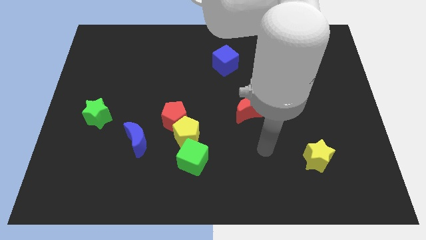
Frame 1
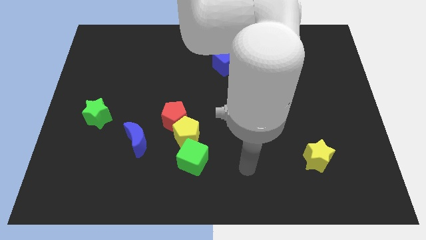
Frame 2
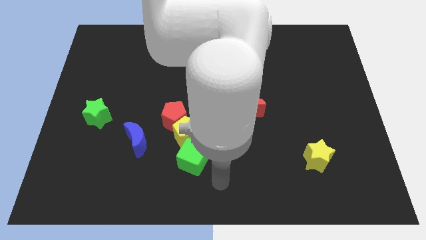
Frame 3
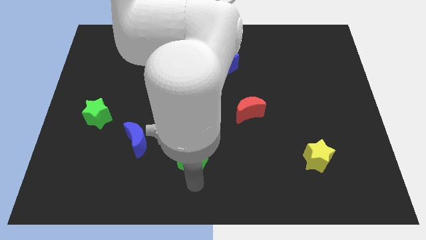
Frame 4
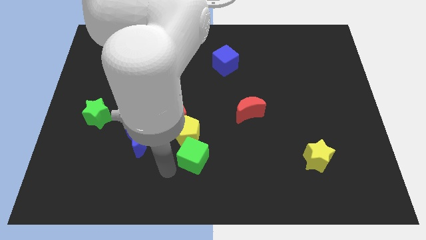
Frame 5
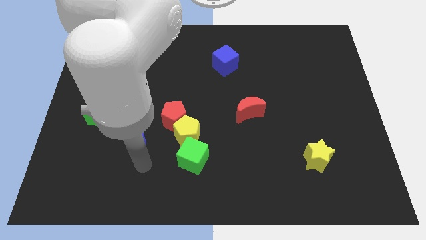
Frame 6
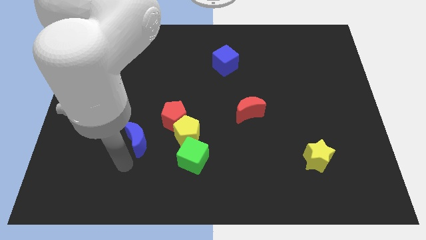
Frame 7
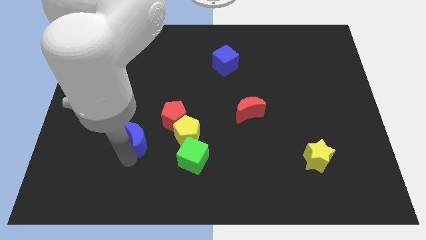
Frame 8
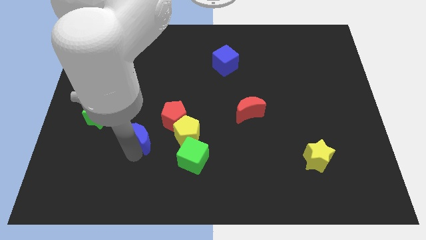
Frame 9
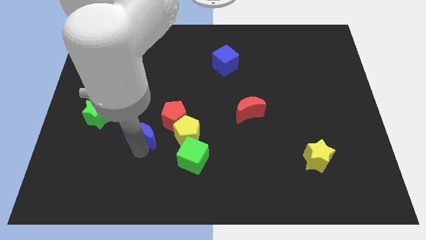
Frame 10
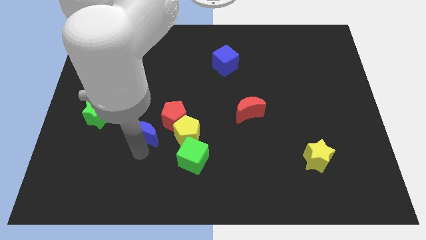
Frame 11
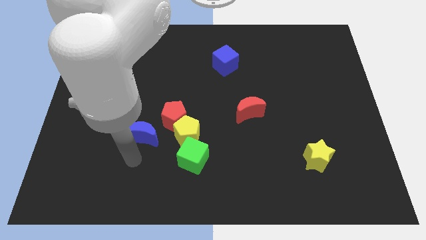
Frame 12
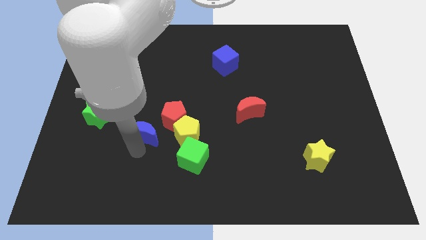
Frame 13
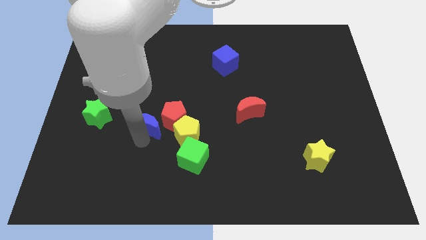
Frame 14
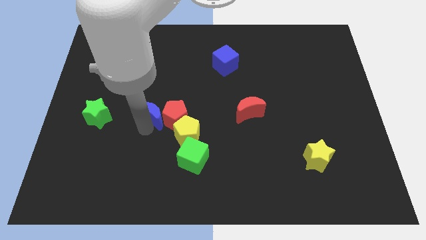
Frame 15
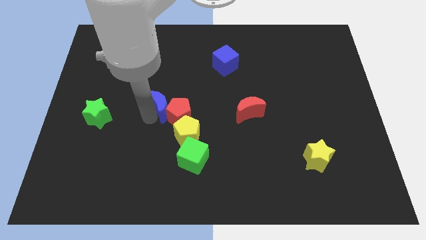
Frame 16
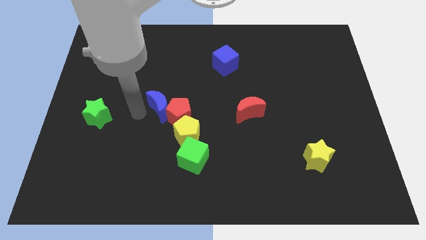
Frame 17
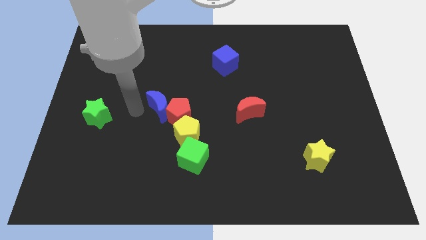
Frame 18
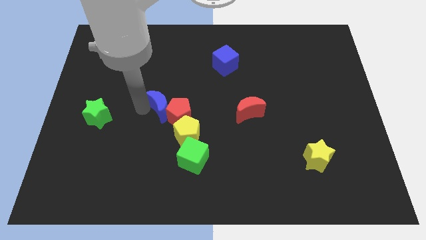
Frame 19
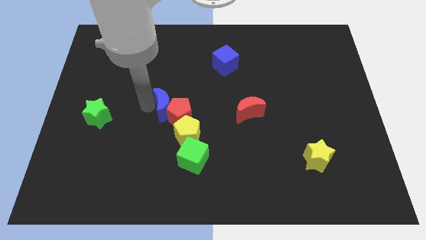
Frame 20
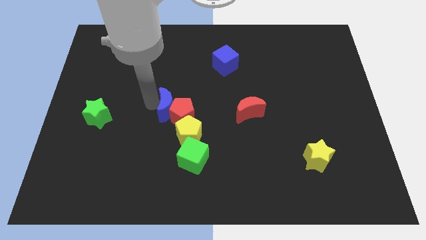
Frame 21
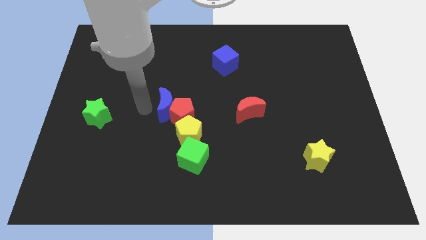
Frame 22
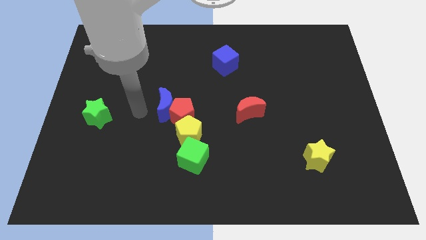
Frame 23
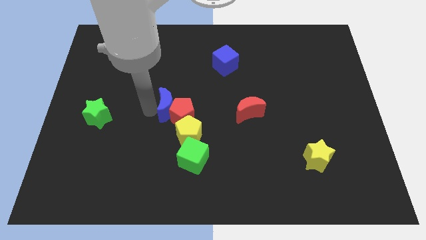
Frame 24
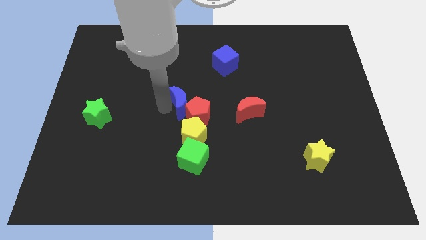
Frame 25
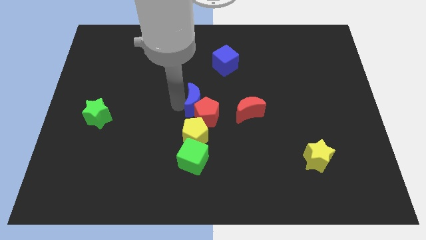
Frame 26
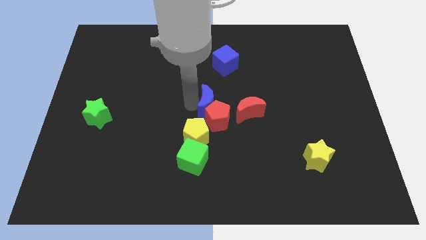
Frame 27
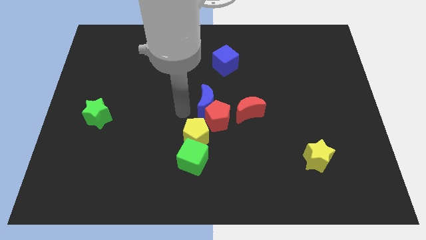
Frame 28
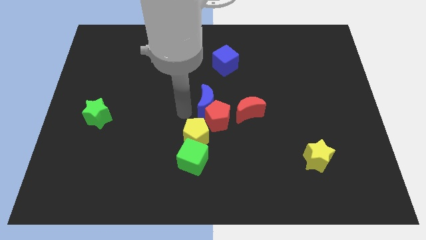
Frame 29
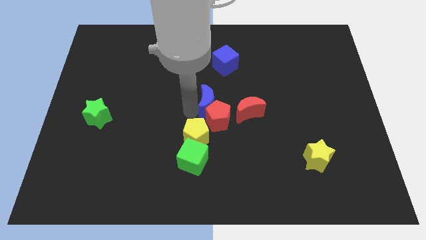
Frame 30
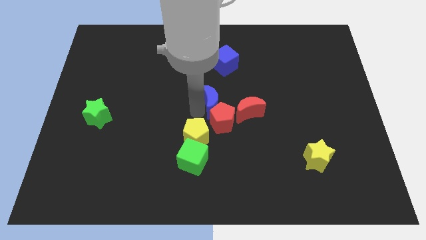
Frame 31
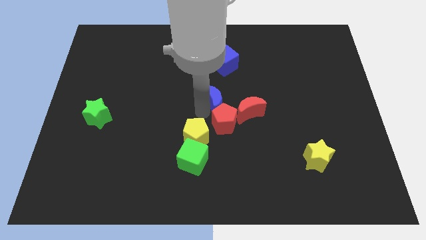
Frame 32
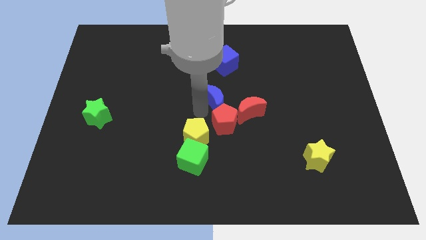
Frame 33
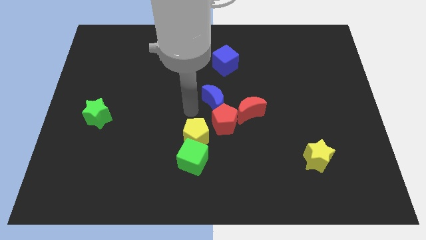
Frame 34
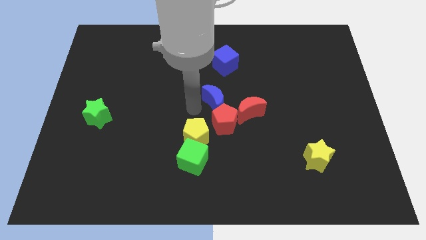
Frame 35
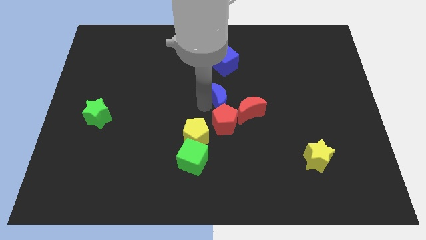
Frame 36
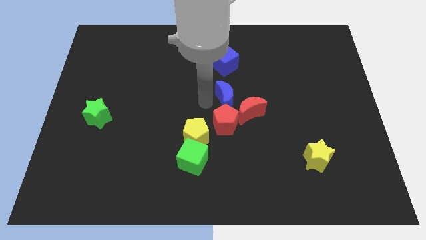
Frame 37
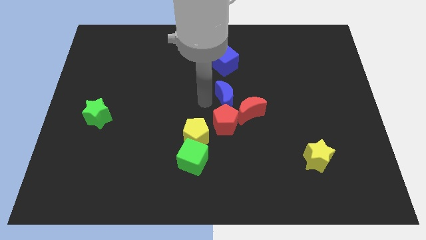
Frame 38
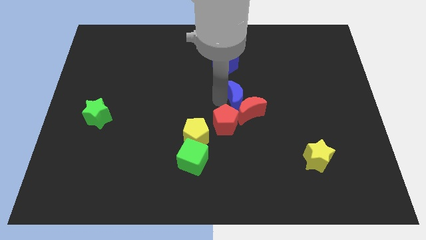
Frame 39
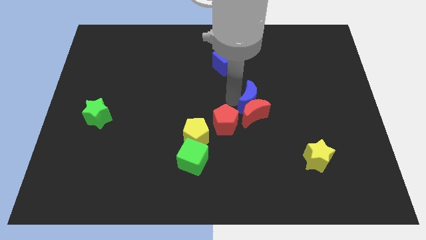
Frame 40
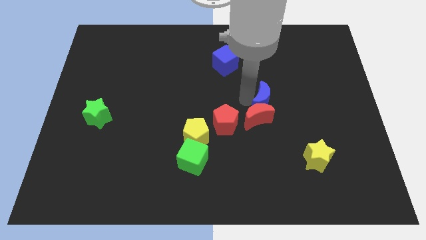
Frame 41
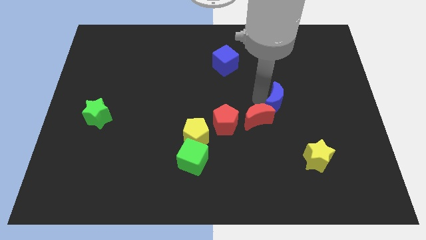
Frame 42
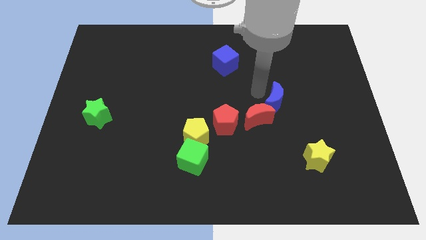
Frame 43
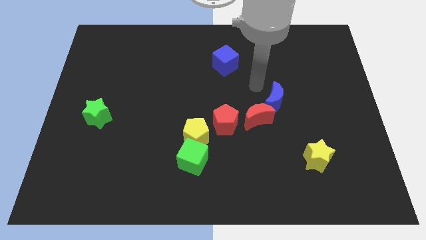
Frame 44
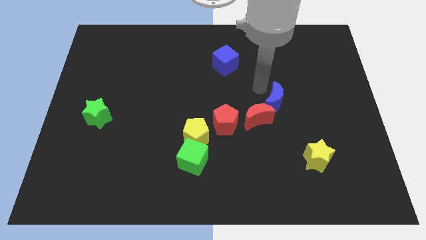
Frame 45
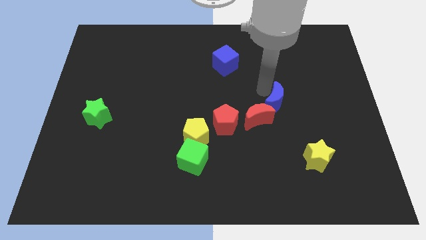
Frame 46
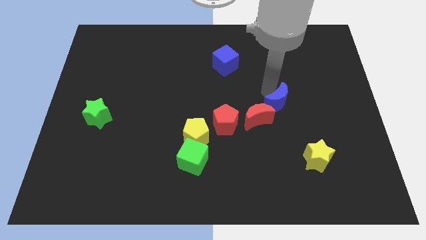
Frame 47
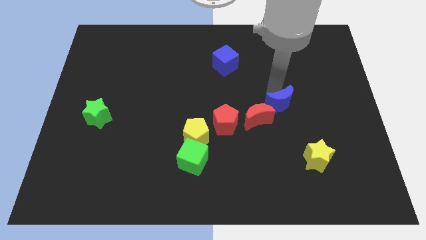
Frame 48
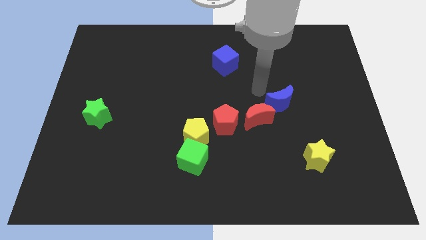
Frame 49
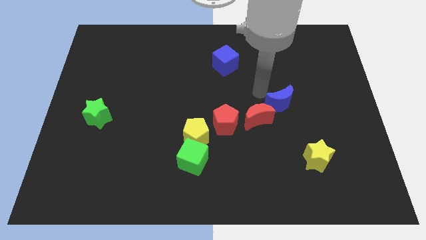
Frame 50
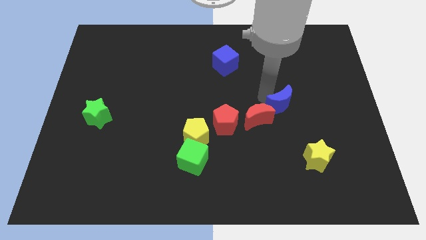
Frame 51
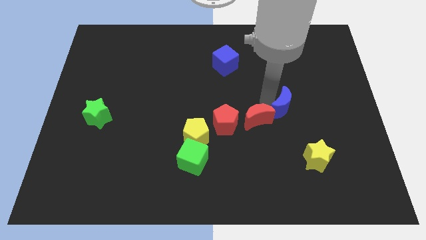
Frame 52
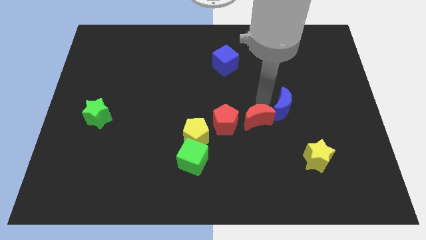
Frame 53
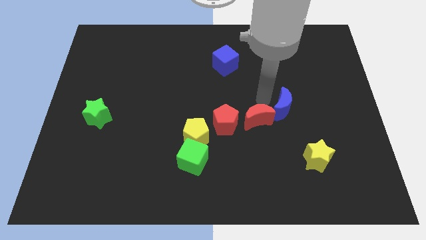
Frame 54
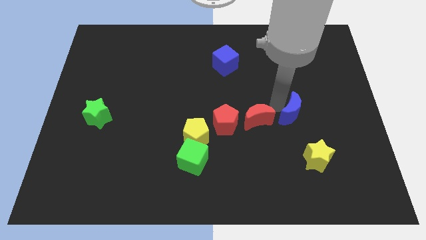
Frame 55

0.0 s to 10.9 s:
slide the blue moon to the top side of the yellow star

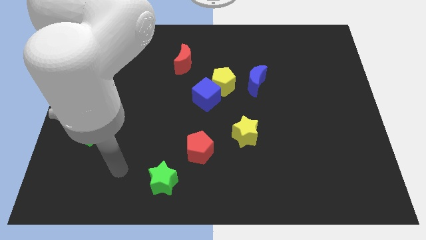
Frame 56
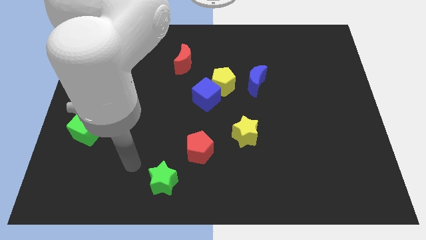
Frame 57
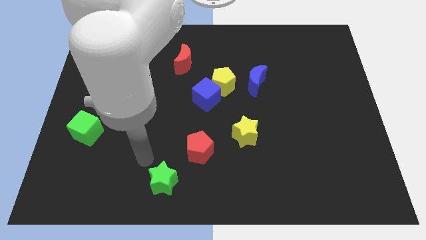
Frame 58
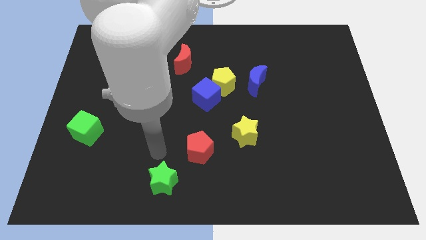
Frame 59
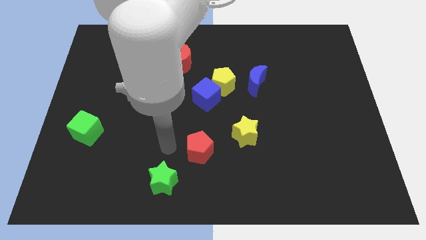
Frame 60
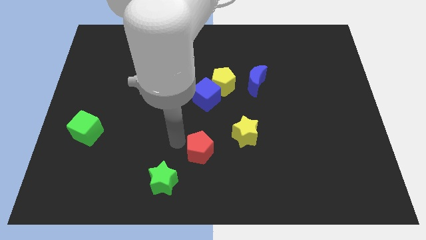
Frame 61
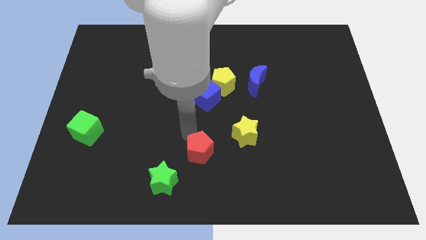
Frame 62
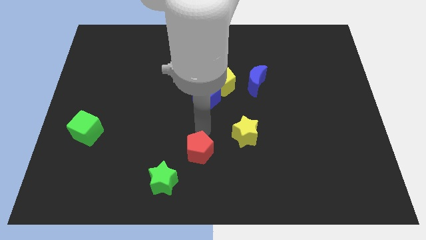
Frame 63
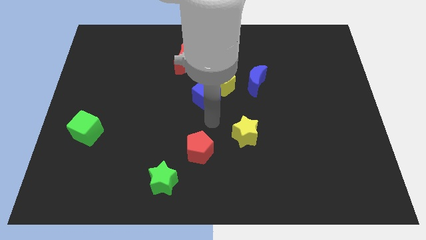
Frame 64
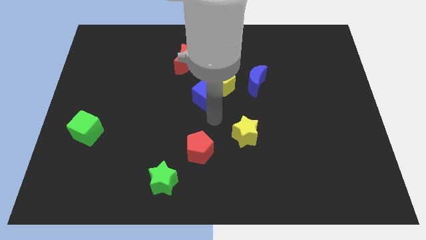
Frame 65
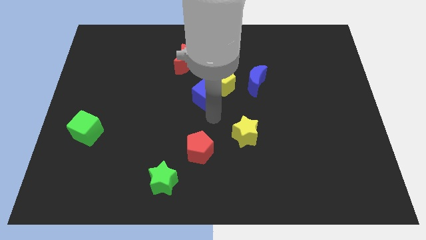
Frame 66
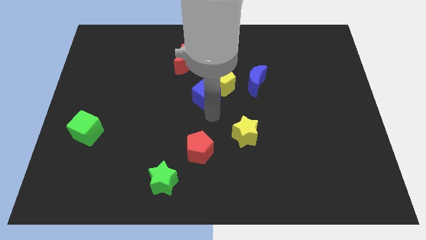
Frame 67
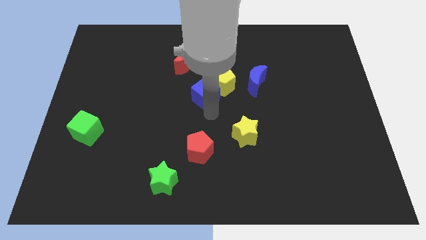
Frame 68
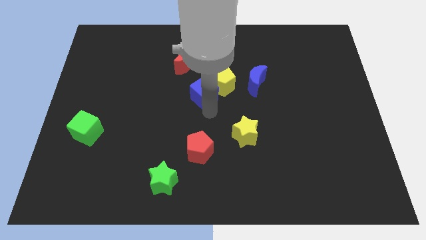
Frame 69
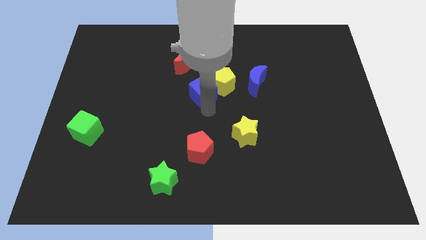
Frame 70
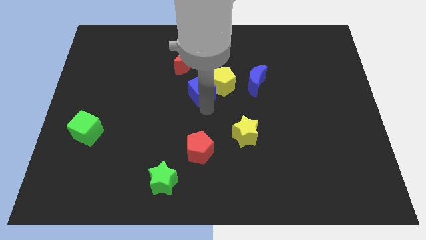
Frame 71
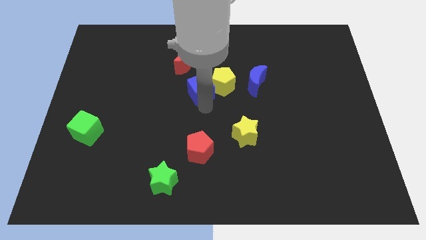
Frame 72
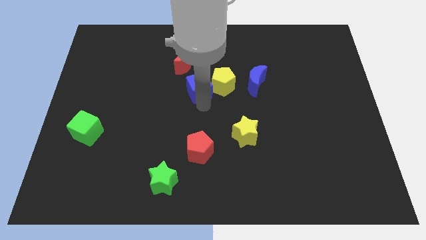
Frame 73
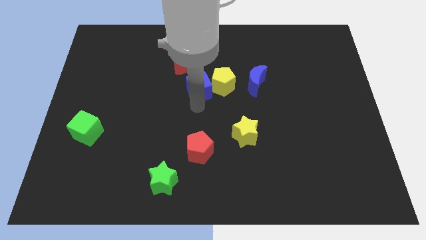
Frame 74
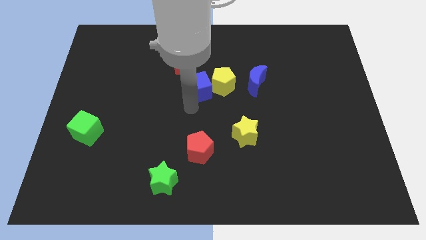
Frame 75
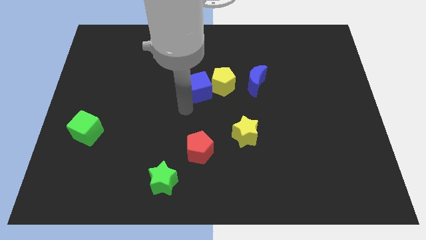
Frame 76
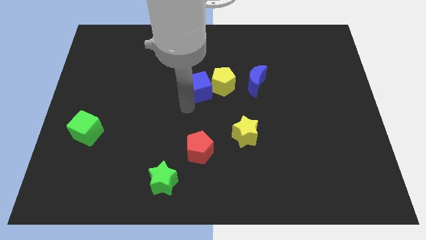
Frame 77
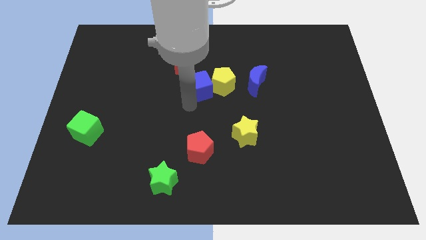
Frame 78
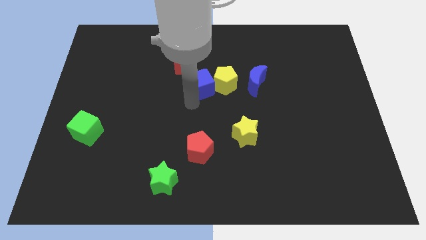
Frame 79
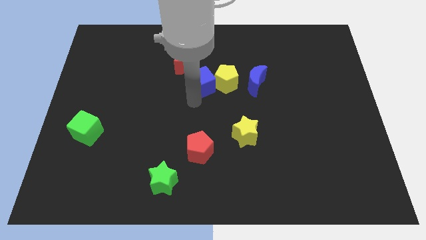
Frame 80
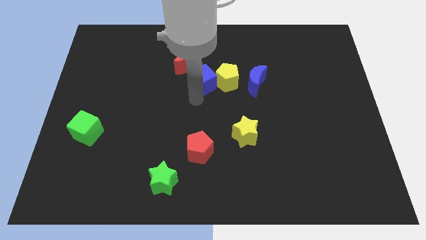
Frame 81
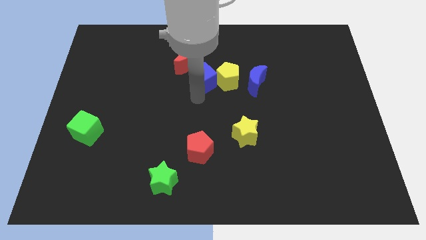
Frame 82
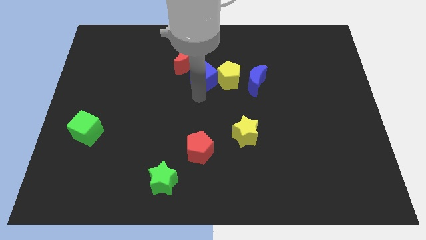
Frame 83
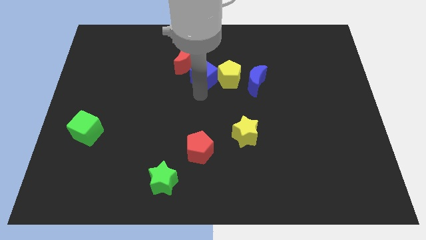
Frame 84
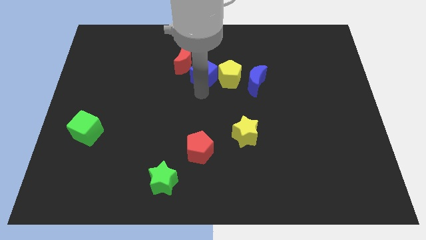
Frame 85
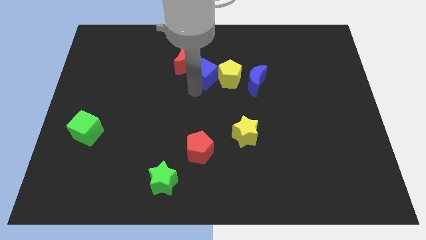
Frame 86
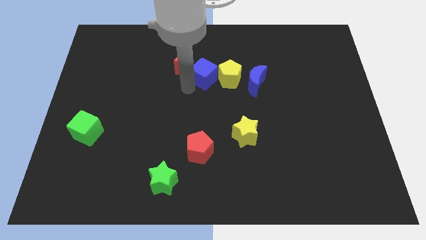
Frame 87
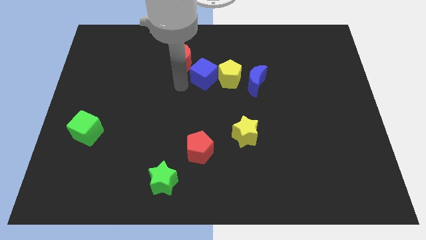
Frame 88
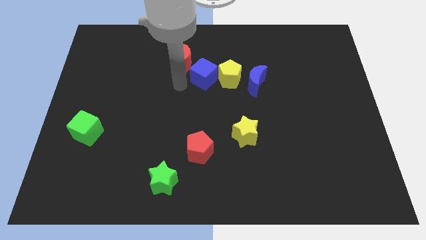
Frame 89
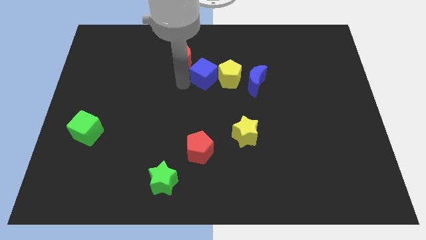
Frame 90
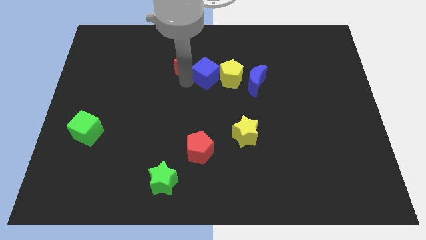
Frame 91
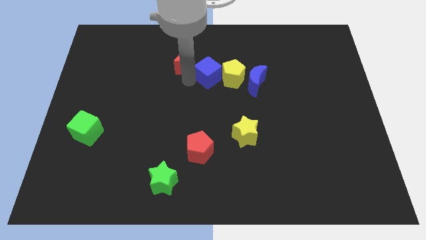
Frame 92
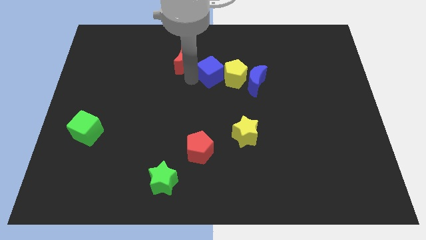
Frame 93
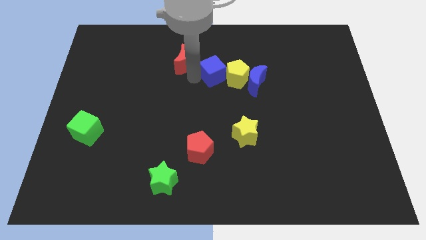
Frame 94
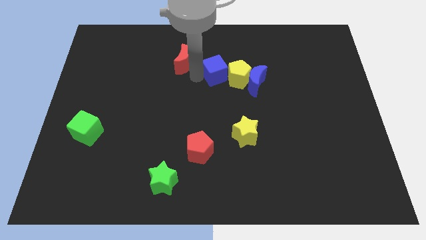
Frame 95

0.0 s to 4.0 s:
push the blue cube to the top left side of the blue moon
